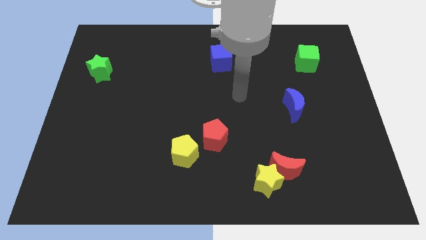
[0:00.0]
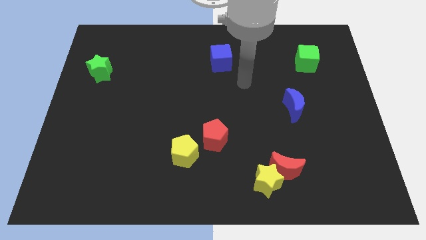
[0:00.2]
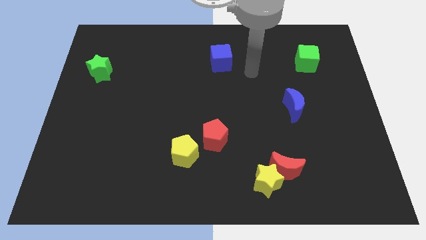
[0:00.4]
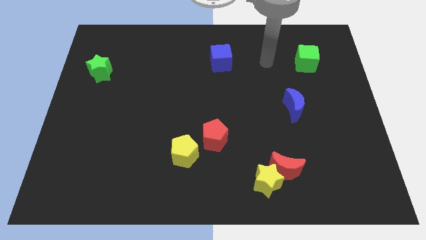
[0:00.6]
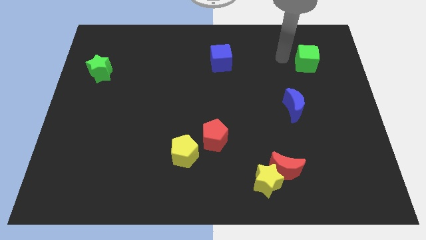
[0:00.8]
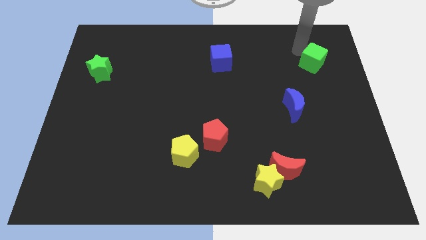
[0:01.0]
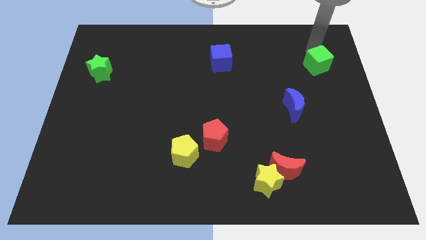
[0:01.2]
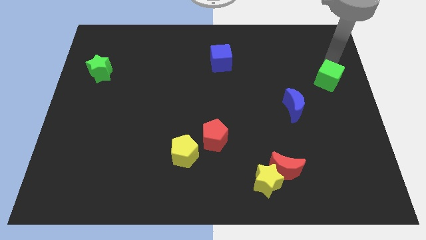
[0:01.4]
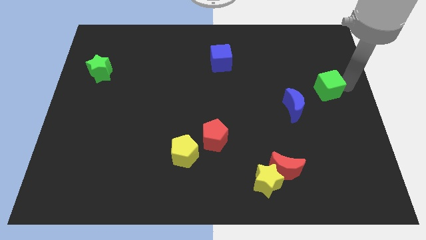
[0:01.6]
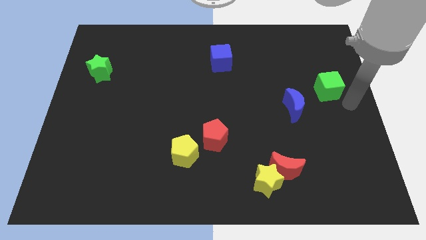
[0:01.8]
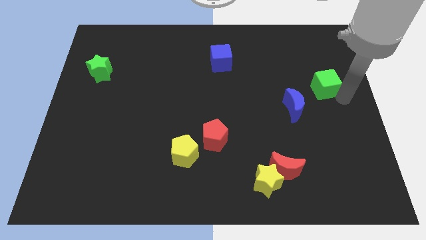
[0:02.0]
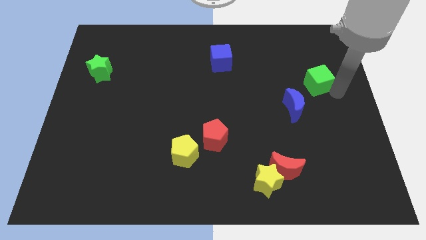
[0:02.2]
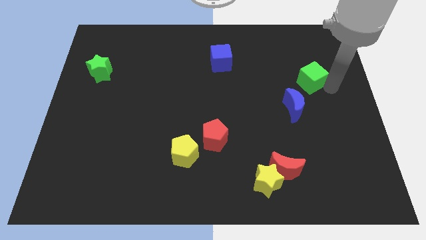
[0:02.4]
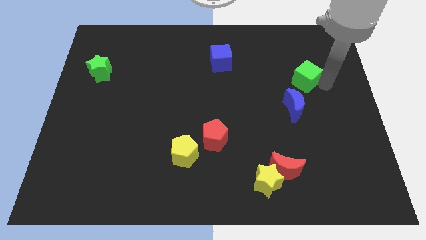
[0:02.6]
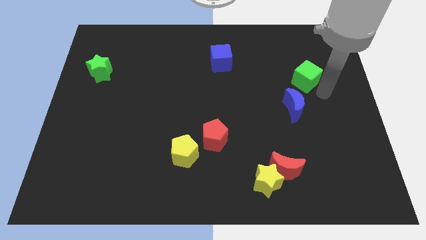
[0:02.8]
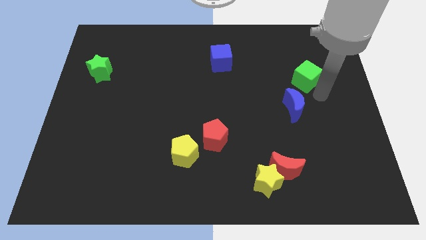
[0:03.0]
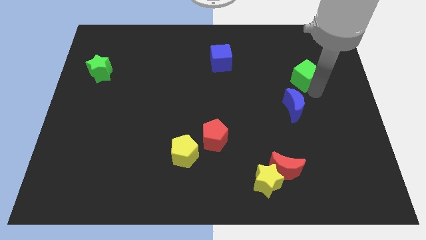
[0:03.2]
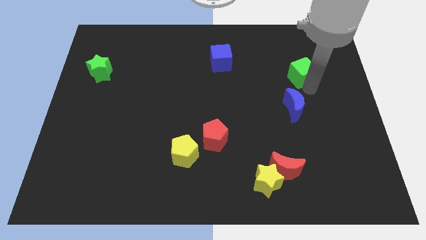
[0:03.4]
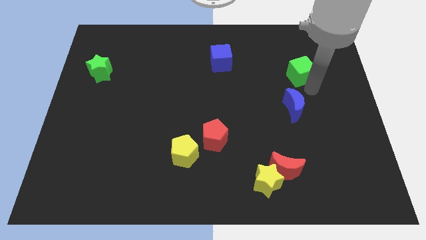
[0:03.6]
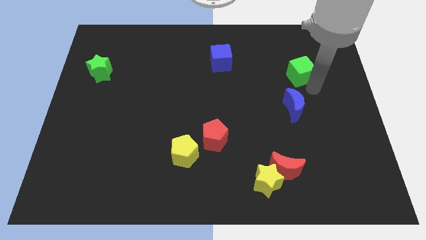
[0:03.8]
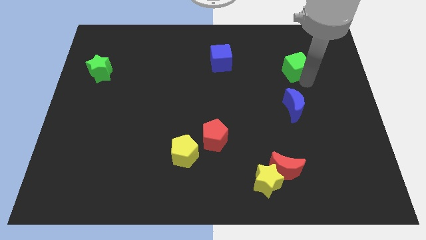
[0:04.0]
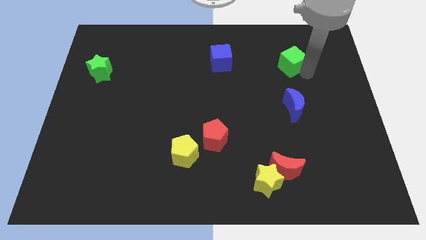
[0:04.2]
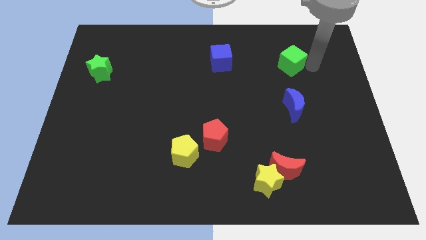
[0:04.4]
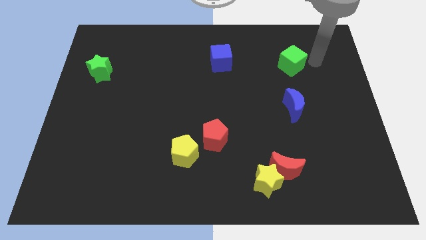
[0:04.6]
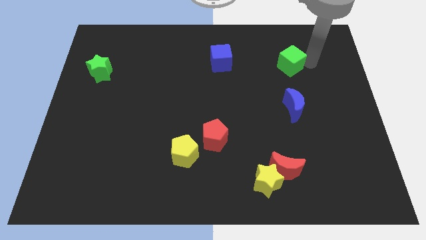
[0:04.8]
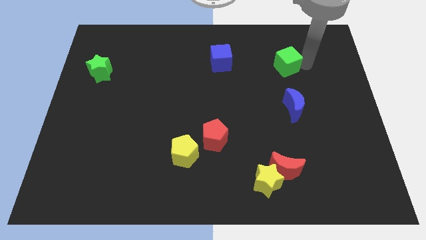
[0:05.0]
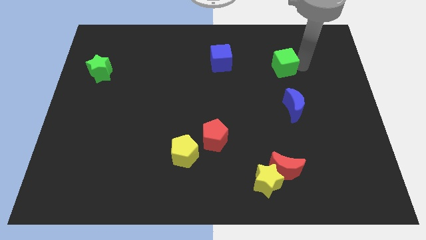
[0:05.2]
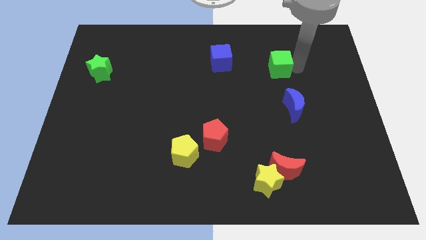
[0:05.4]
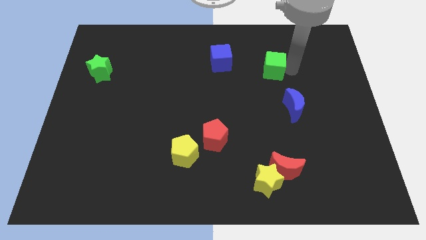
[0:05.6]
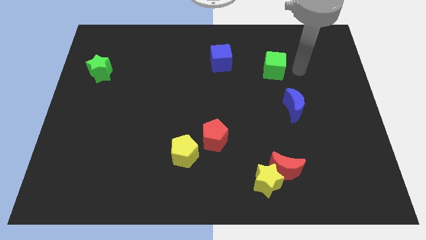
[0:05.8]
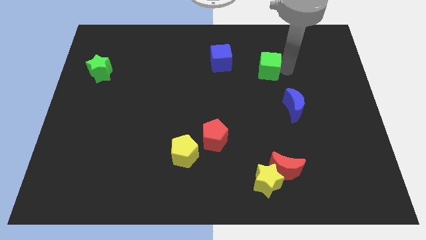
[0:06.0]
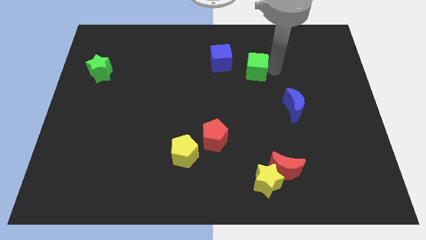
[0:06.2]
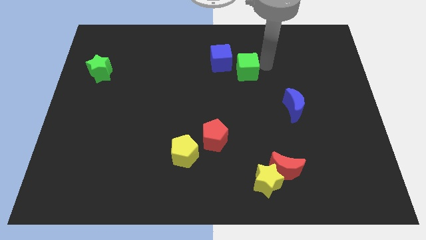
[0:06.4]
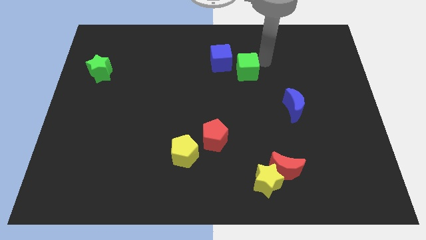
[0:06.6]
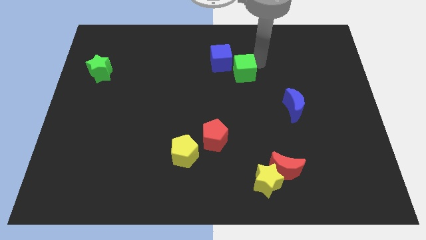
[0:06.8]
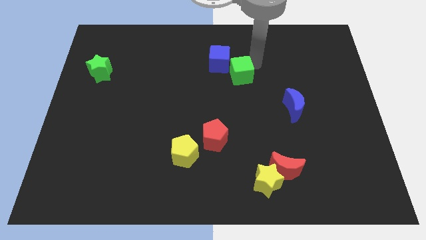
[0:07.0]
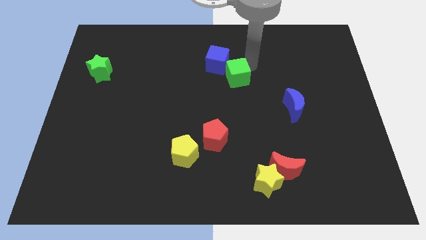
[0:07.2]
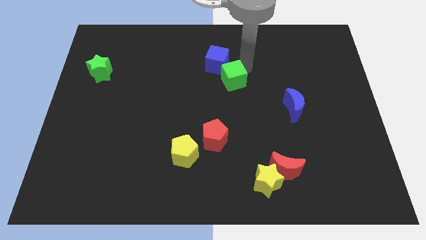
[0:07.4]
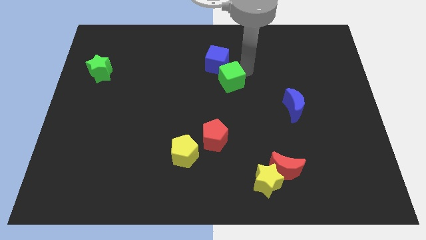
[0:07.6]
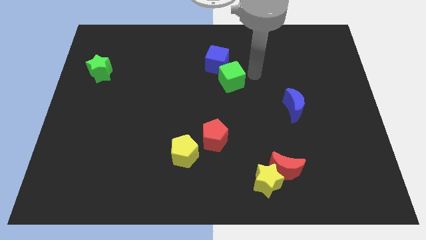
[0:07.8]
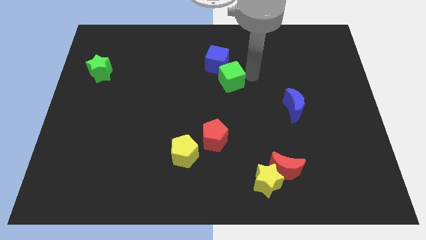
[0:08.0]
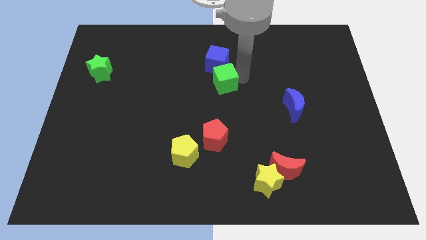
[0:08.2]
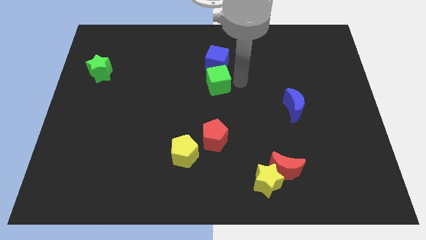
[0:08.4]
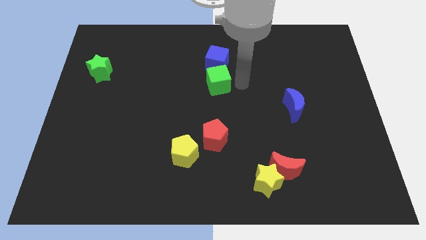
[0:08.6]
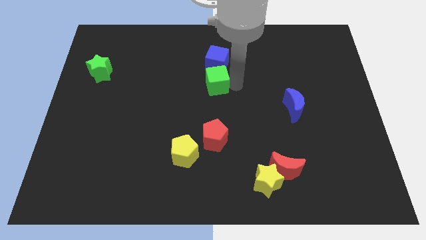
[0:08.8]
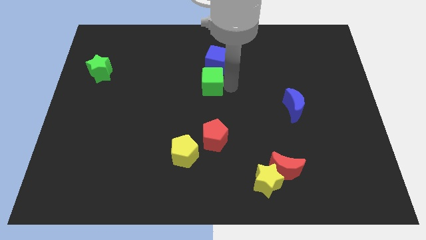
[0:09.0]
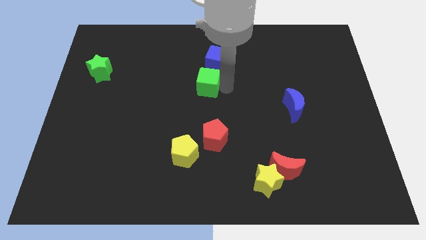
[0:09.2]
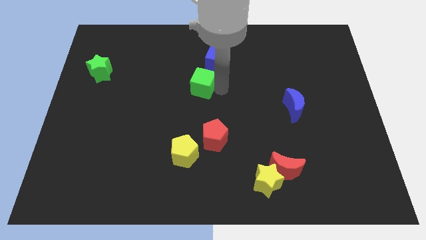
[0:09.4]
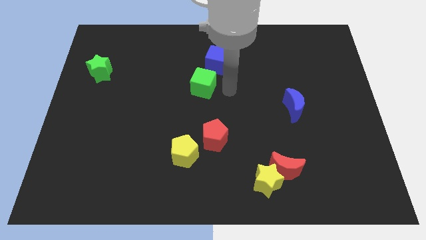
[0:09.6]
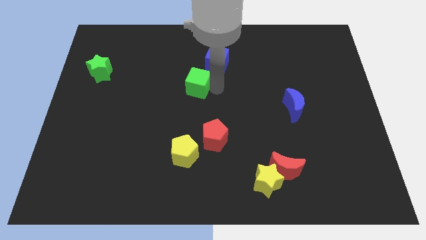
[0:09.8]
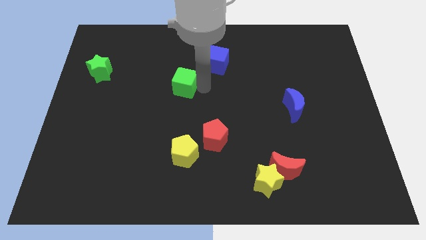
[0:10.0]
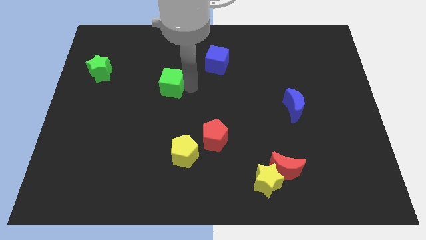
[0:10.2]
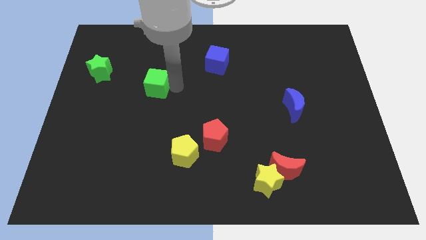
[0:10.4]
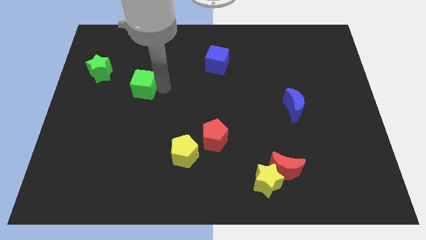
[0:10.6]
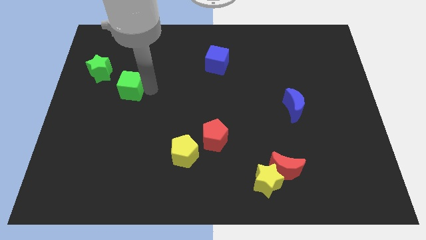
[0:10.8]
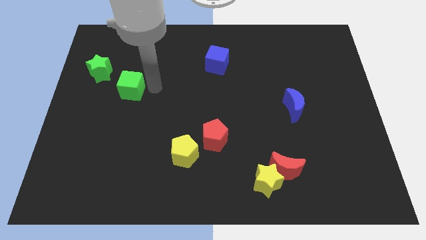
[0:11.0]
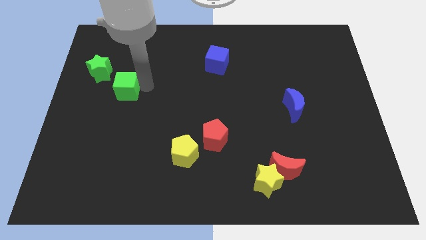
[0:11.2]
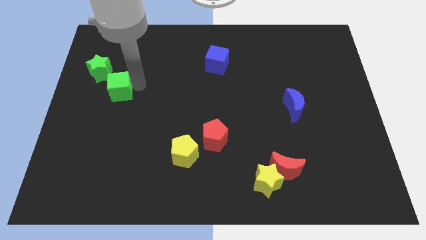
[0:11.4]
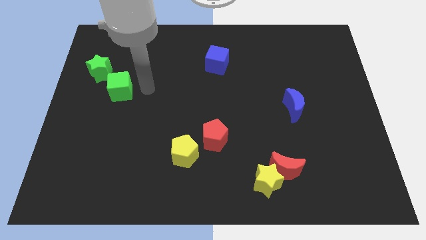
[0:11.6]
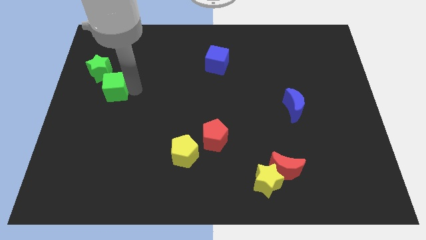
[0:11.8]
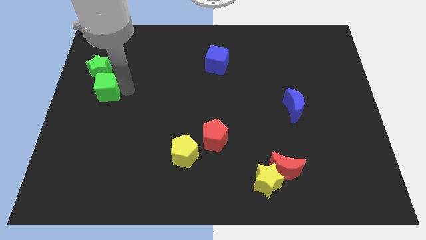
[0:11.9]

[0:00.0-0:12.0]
move the green cube to the left side
